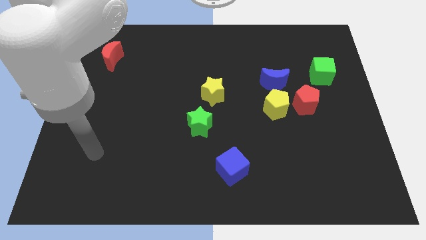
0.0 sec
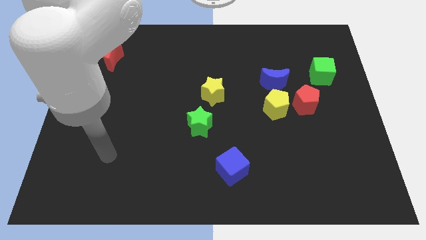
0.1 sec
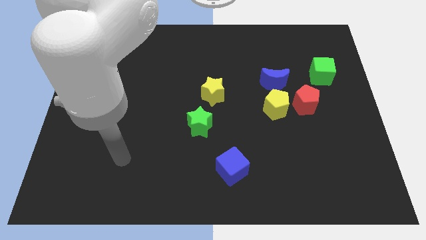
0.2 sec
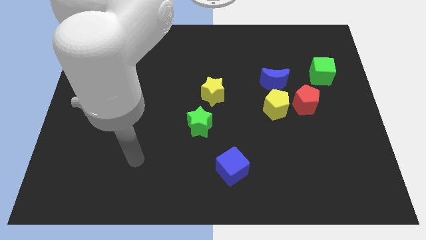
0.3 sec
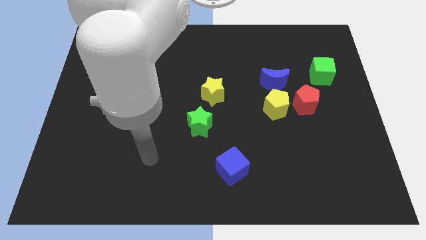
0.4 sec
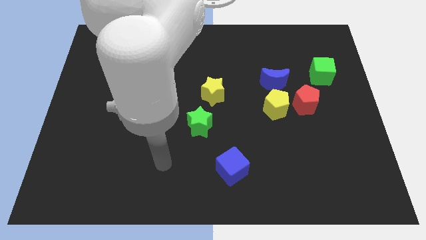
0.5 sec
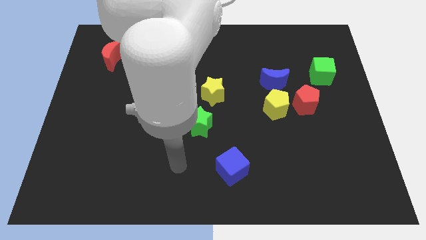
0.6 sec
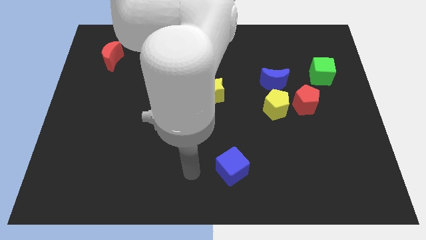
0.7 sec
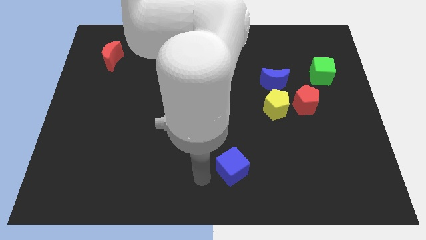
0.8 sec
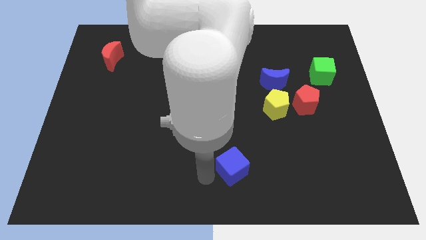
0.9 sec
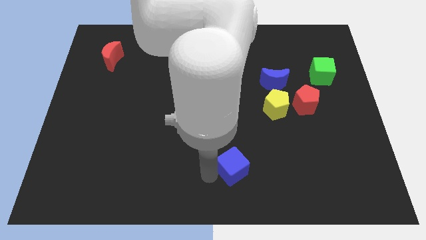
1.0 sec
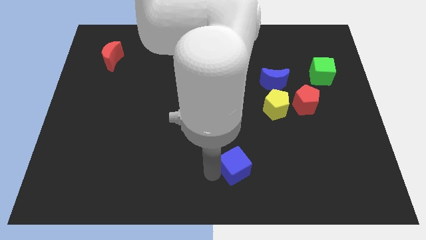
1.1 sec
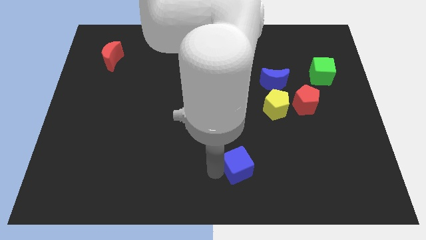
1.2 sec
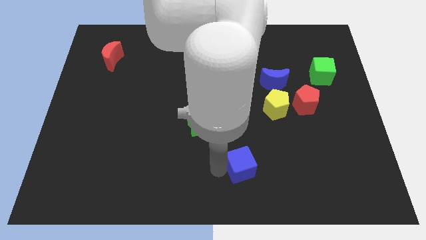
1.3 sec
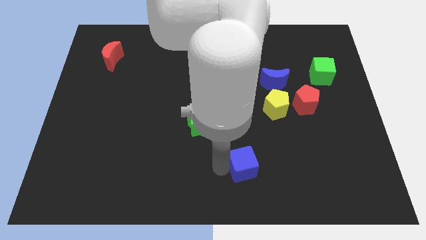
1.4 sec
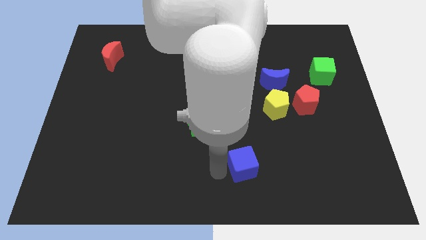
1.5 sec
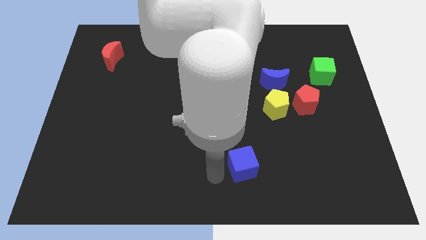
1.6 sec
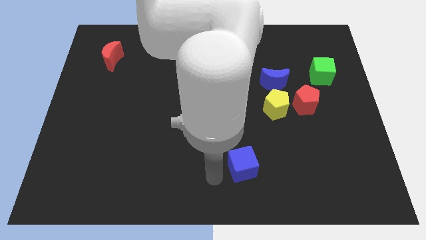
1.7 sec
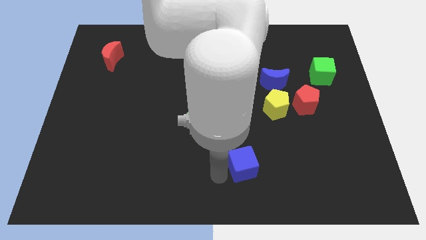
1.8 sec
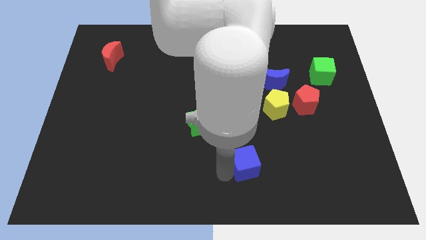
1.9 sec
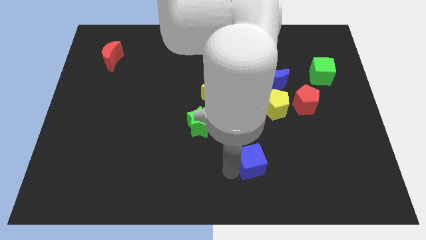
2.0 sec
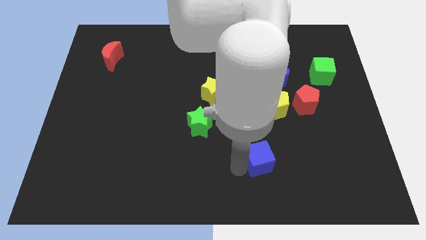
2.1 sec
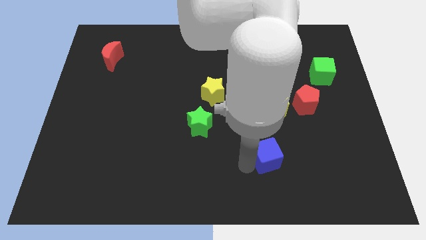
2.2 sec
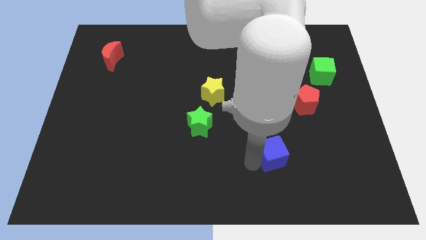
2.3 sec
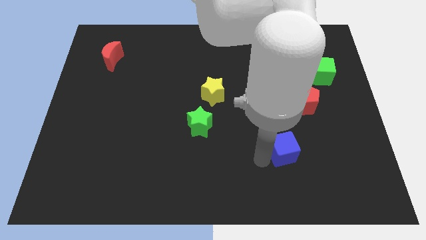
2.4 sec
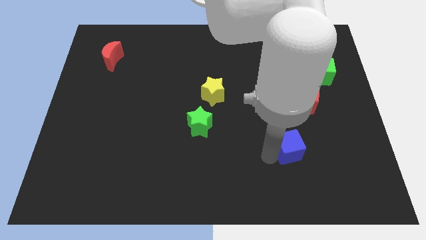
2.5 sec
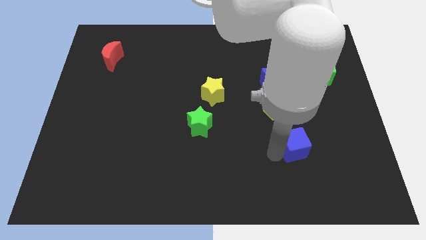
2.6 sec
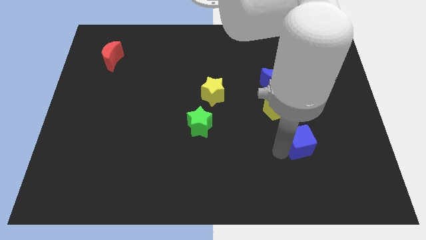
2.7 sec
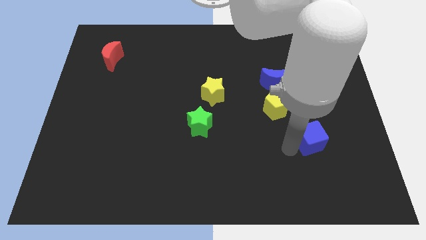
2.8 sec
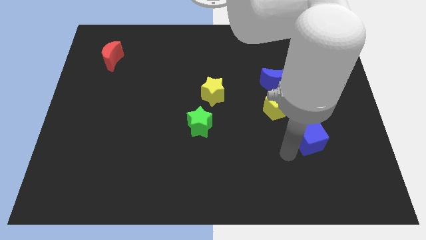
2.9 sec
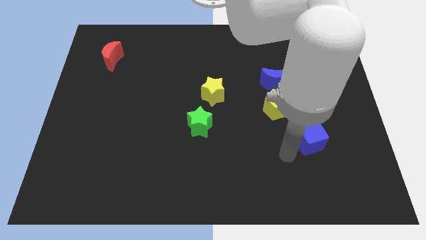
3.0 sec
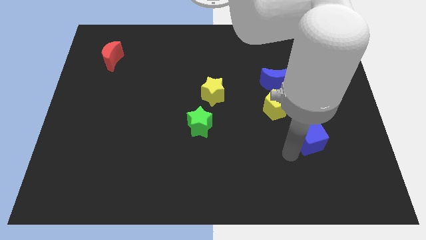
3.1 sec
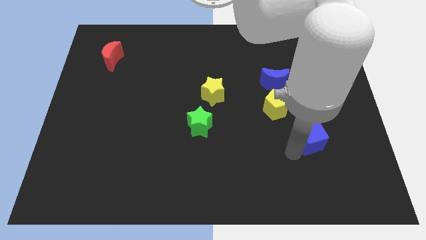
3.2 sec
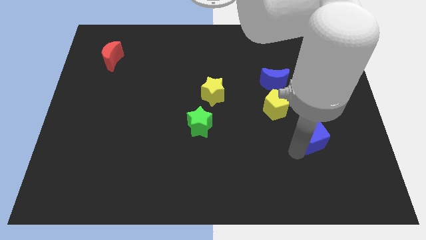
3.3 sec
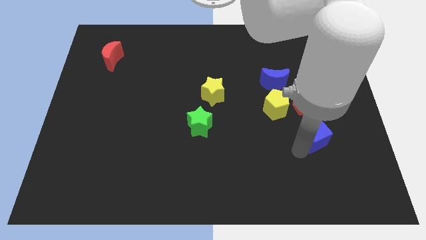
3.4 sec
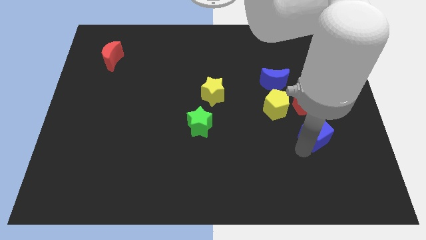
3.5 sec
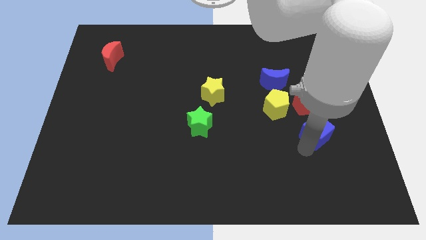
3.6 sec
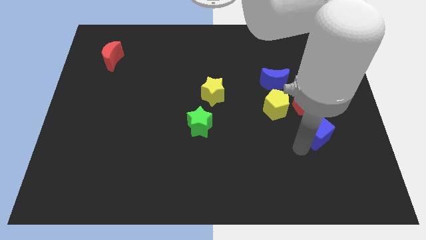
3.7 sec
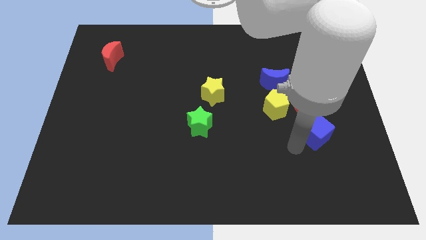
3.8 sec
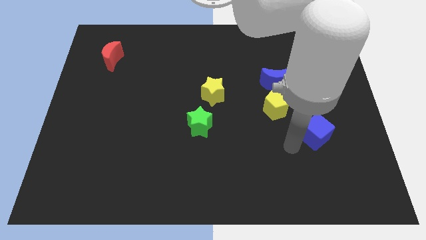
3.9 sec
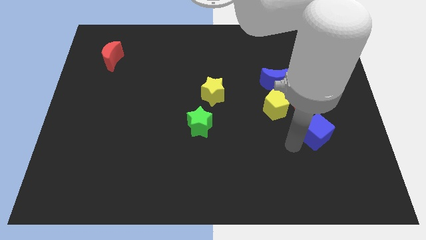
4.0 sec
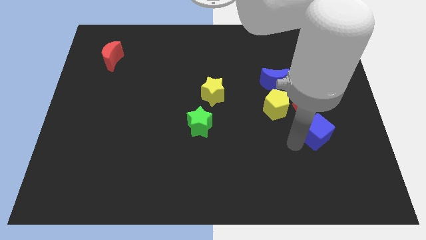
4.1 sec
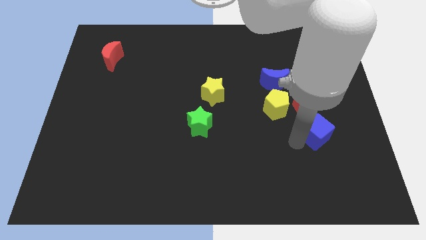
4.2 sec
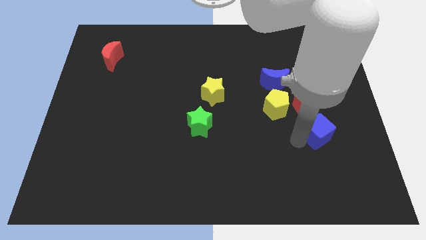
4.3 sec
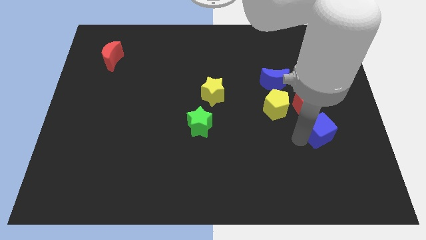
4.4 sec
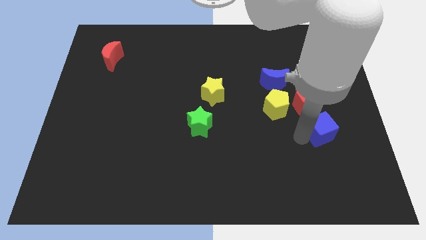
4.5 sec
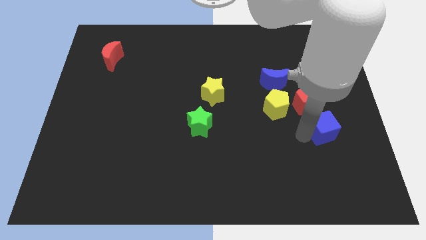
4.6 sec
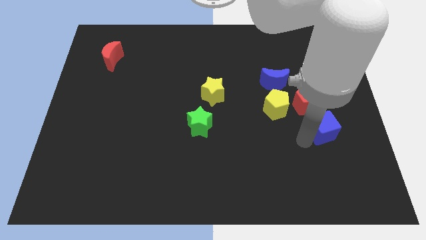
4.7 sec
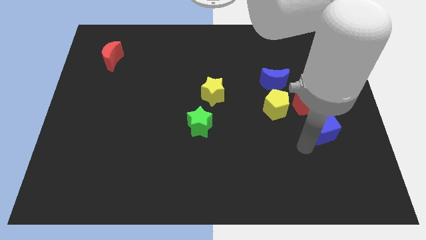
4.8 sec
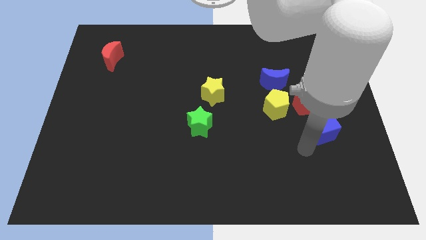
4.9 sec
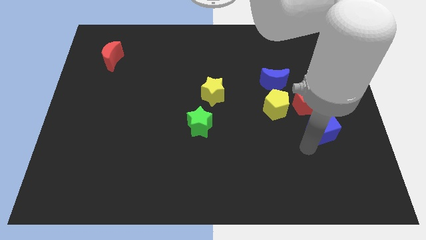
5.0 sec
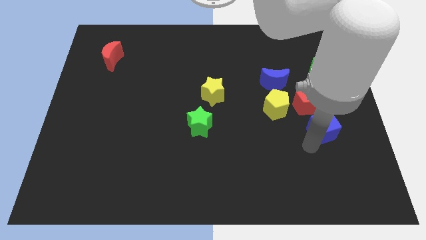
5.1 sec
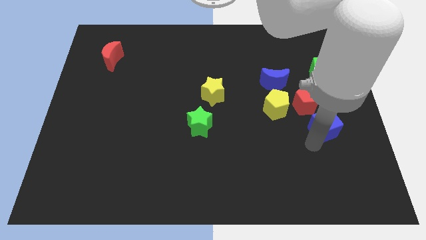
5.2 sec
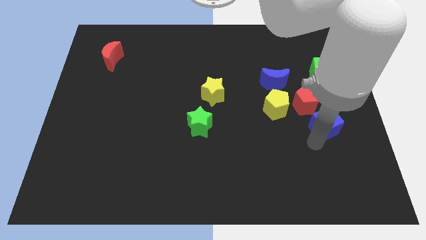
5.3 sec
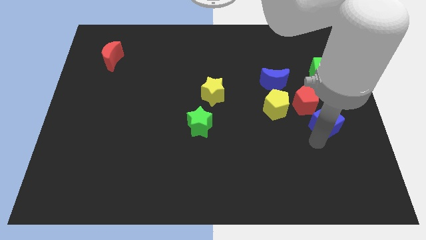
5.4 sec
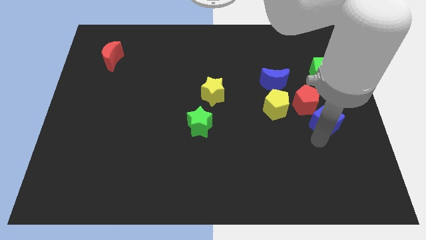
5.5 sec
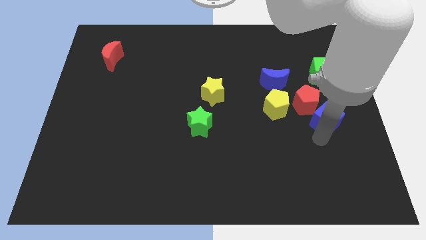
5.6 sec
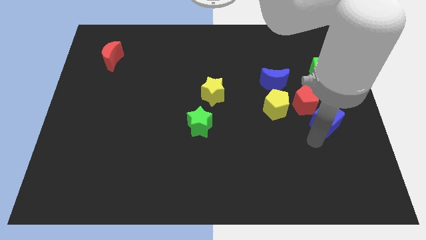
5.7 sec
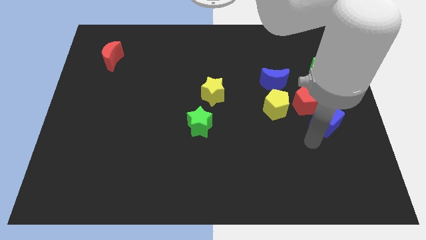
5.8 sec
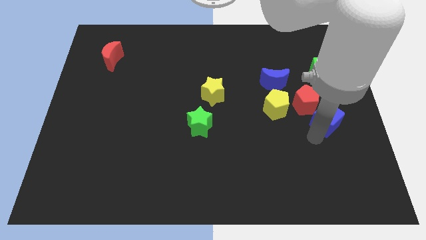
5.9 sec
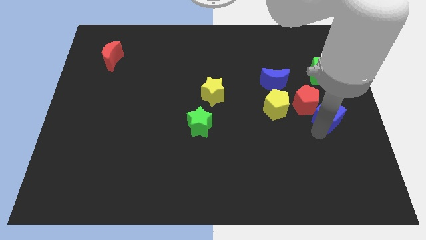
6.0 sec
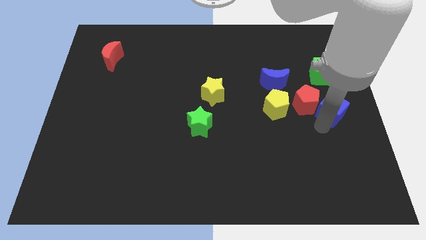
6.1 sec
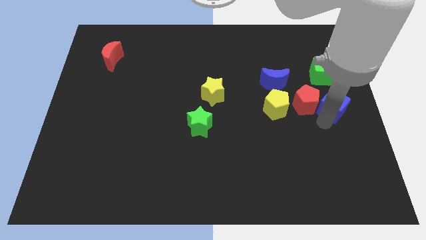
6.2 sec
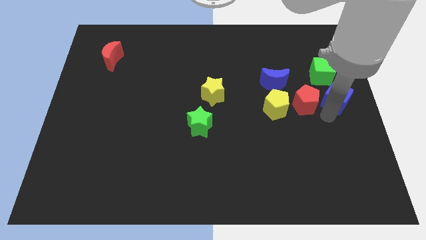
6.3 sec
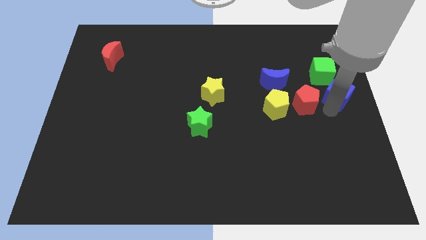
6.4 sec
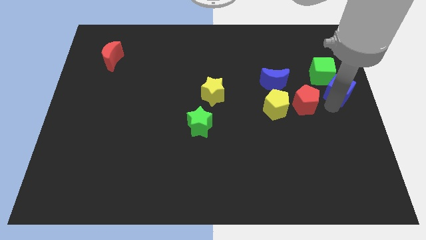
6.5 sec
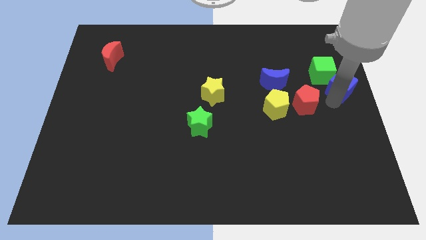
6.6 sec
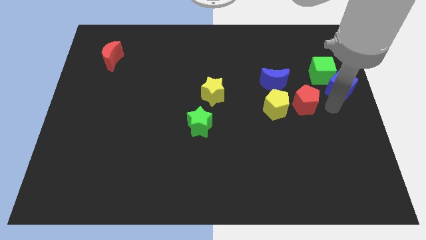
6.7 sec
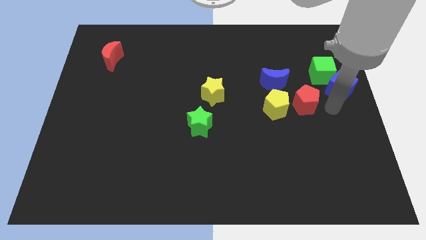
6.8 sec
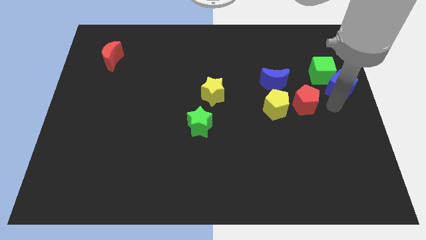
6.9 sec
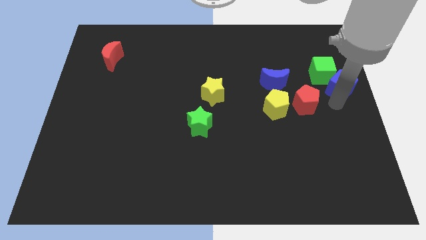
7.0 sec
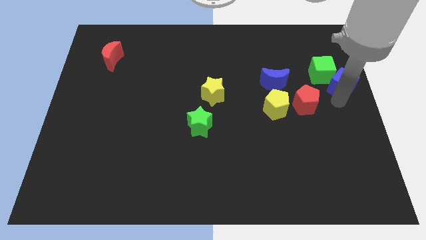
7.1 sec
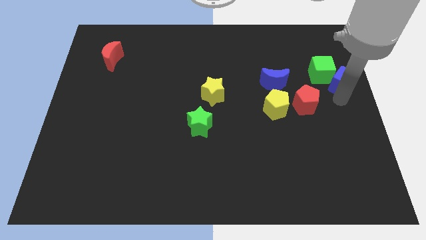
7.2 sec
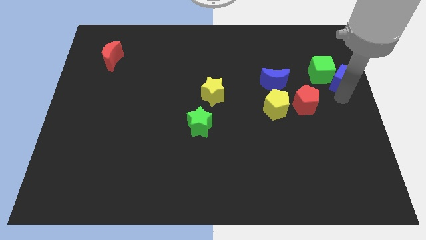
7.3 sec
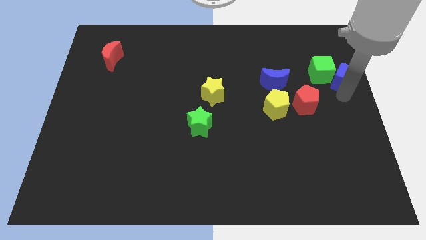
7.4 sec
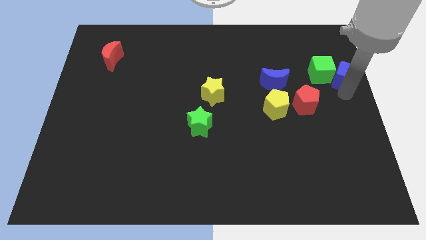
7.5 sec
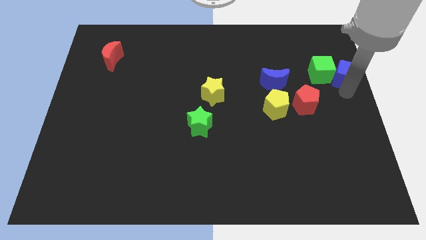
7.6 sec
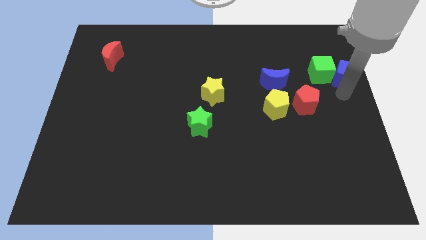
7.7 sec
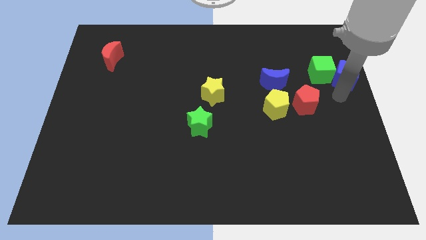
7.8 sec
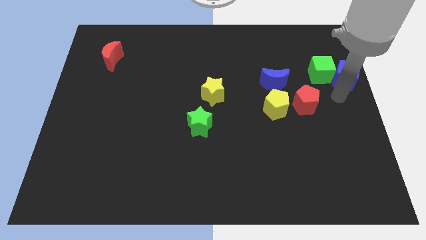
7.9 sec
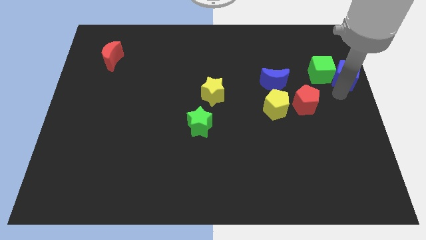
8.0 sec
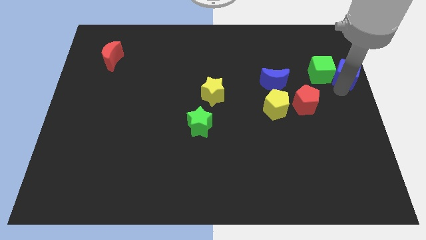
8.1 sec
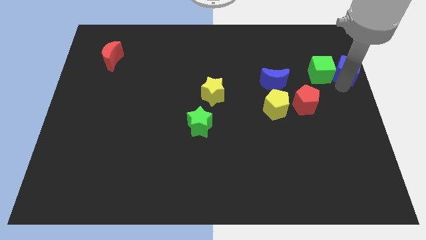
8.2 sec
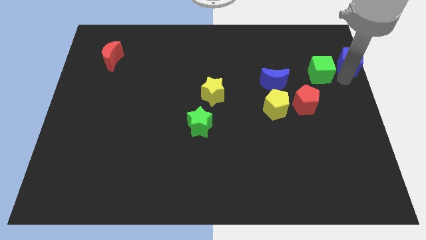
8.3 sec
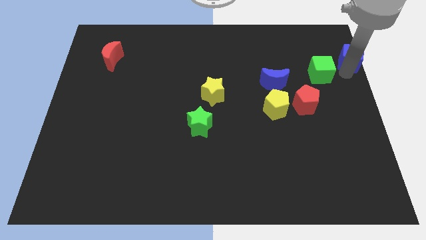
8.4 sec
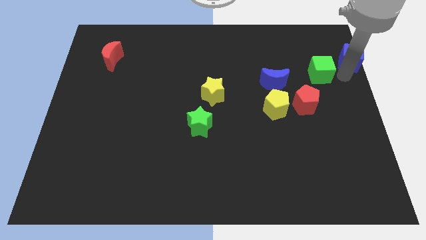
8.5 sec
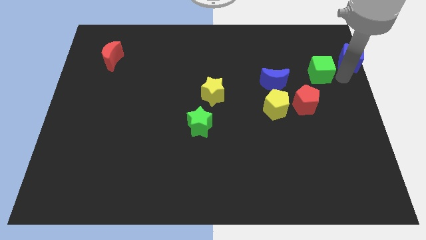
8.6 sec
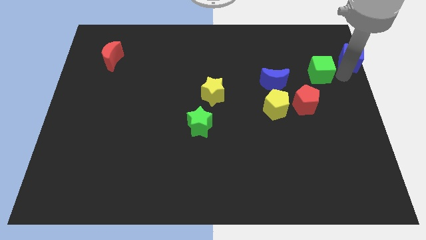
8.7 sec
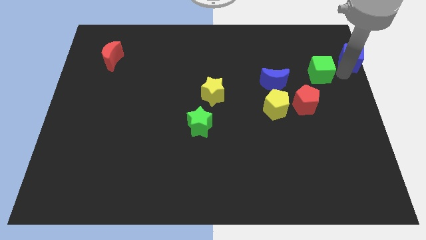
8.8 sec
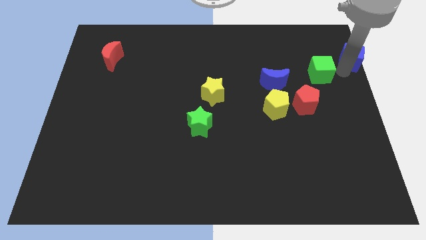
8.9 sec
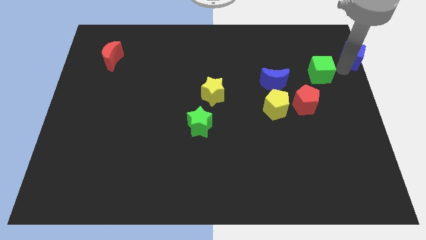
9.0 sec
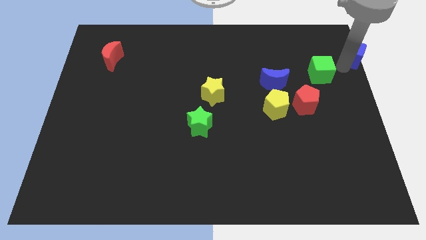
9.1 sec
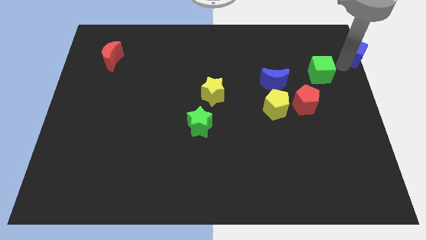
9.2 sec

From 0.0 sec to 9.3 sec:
push the blue cube to the top right of the board
